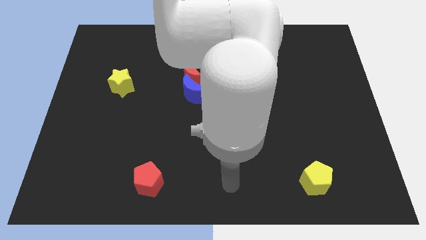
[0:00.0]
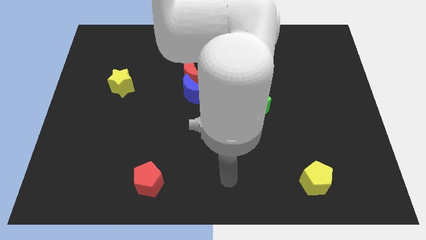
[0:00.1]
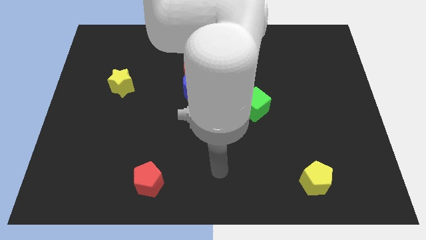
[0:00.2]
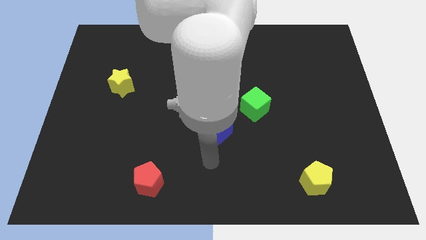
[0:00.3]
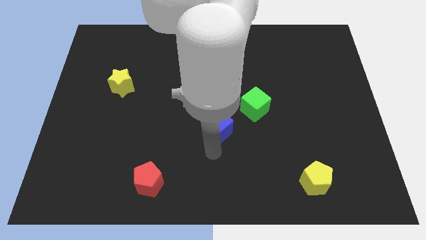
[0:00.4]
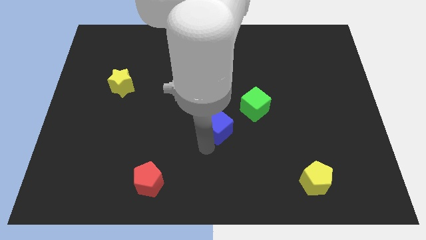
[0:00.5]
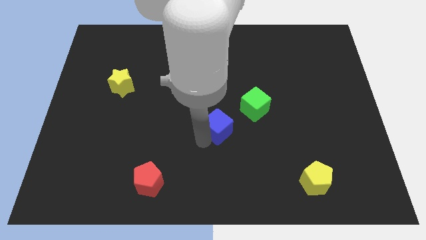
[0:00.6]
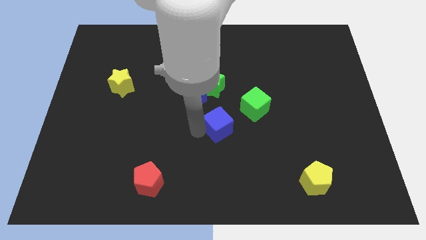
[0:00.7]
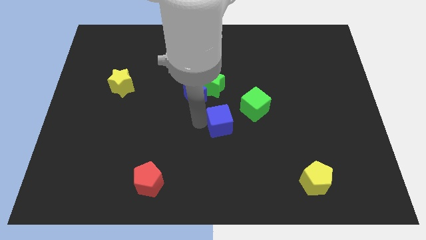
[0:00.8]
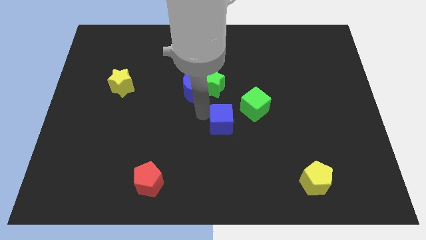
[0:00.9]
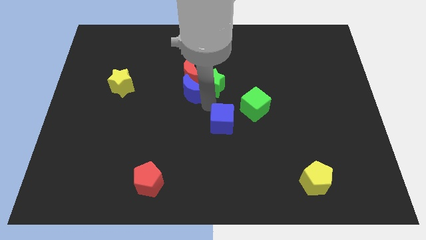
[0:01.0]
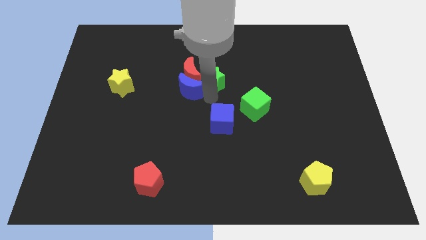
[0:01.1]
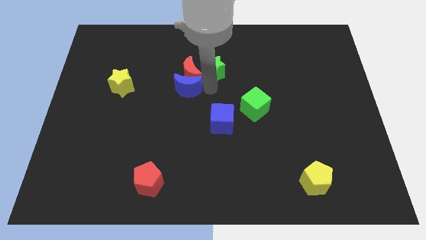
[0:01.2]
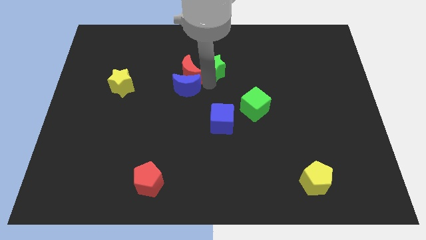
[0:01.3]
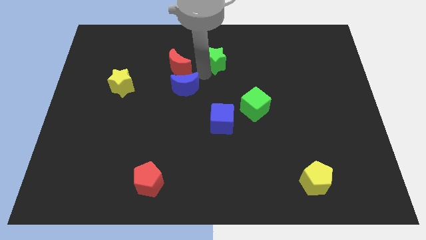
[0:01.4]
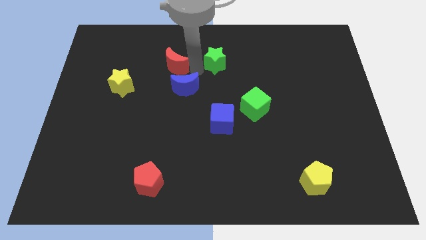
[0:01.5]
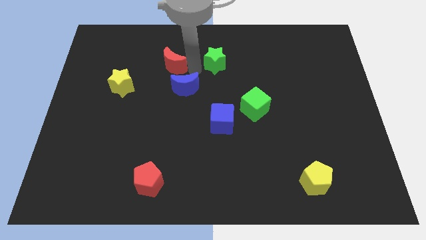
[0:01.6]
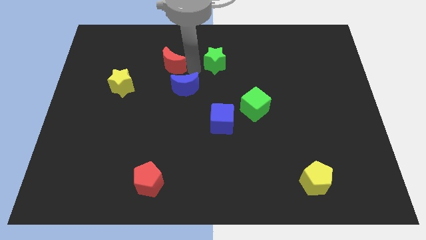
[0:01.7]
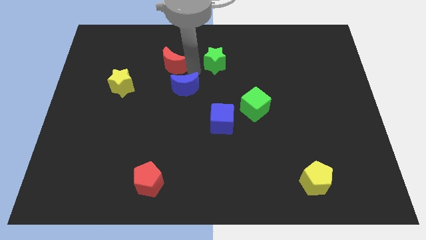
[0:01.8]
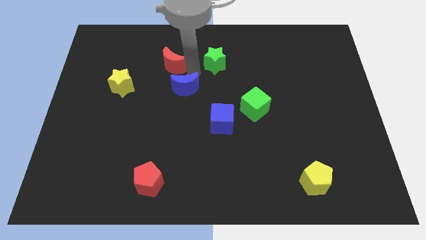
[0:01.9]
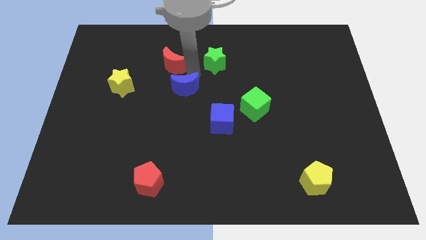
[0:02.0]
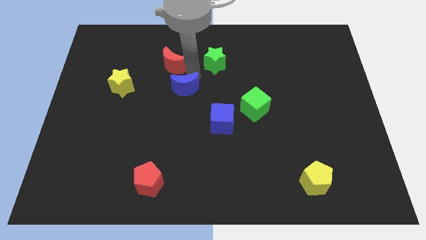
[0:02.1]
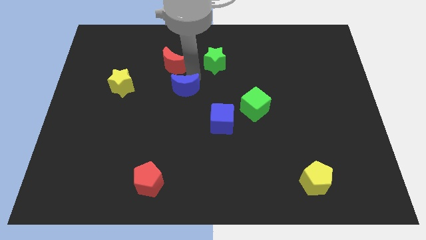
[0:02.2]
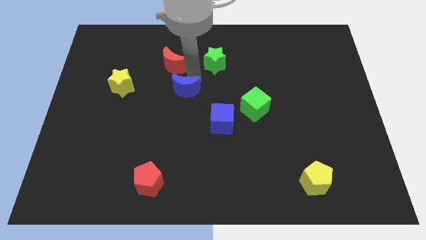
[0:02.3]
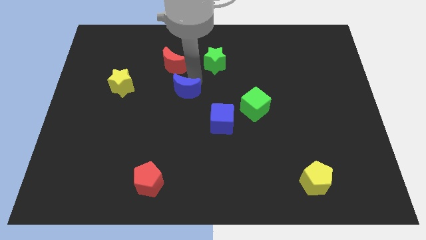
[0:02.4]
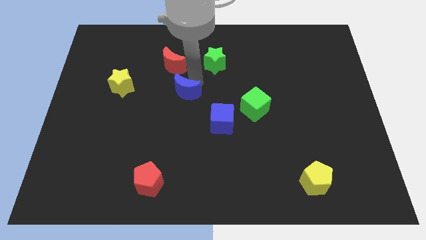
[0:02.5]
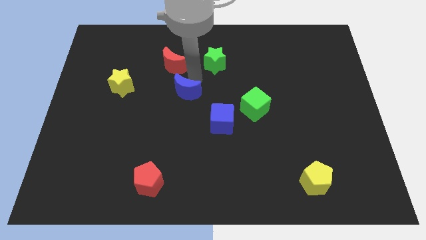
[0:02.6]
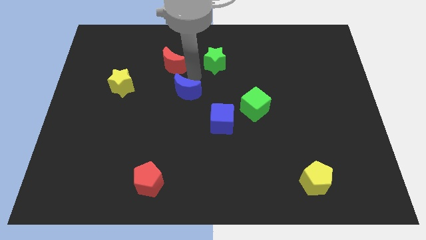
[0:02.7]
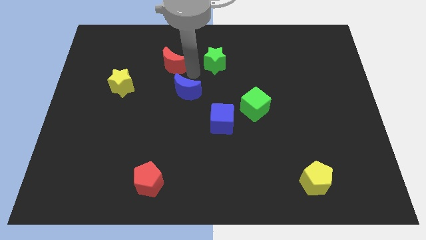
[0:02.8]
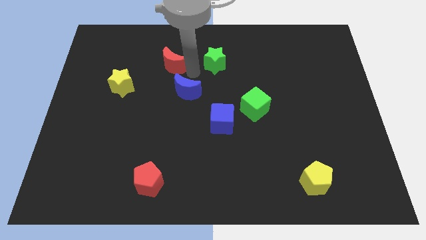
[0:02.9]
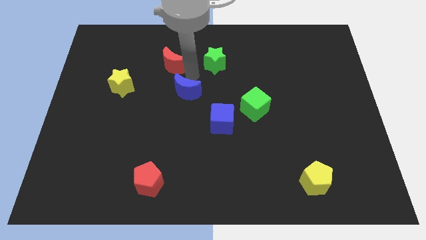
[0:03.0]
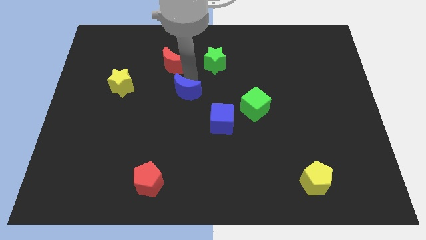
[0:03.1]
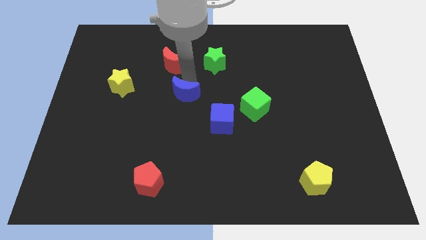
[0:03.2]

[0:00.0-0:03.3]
separate the blue moon from the green star and red moon

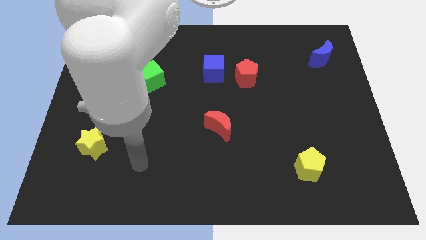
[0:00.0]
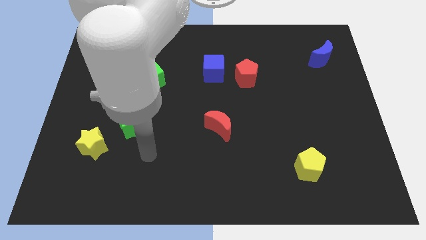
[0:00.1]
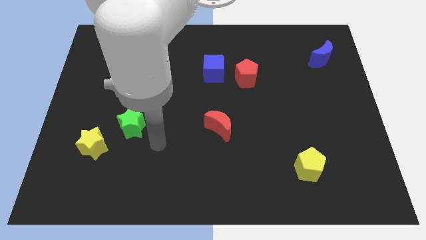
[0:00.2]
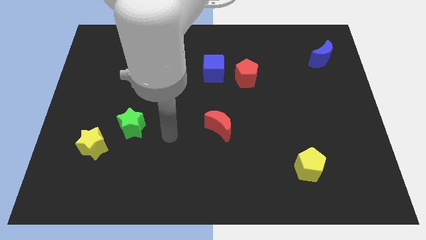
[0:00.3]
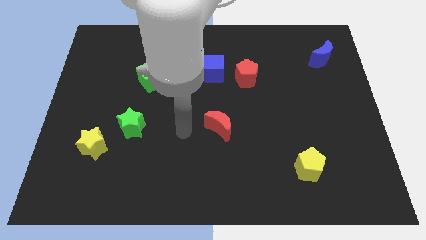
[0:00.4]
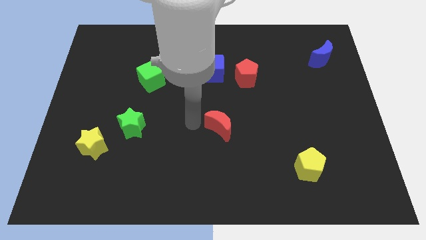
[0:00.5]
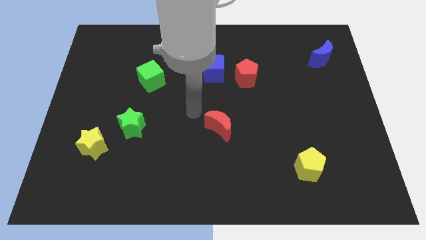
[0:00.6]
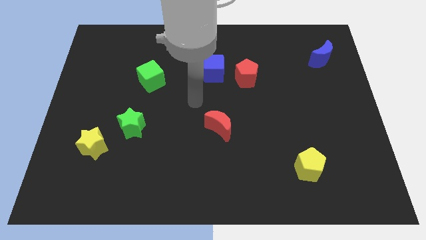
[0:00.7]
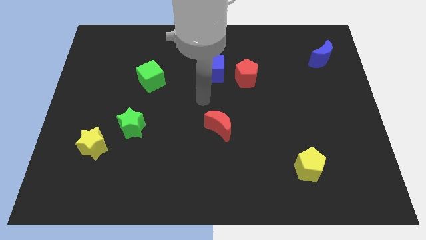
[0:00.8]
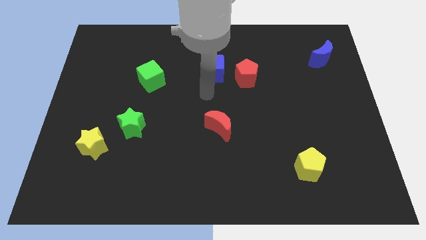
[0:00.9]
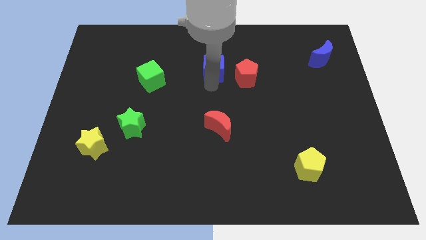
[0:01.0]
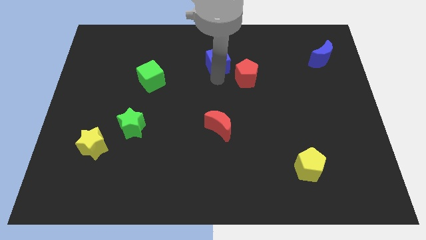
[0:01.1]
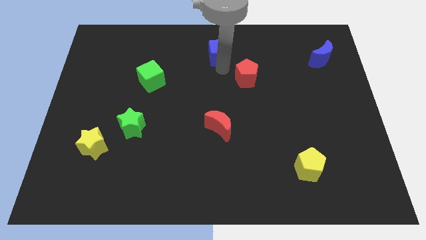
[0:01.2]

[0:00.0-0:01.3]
move the red pentagon away from the blue cube

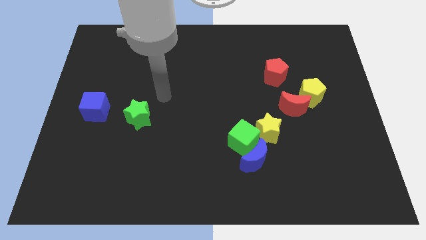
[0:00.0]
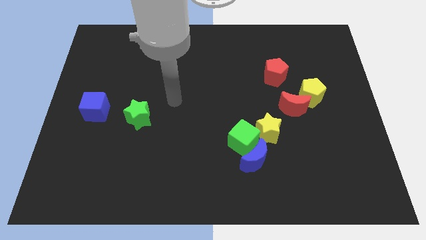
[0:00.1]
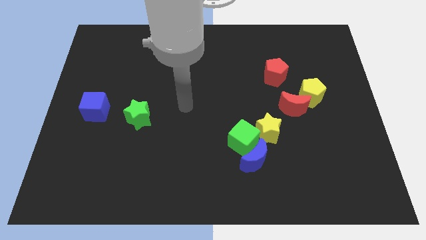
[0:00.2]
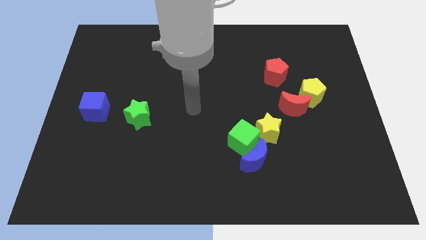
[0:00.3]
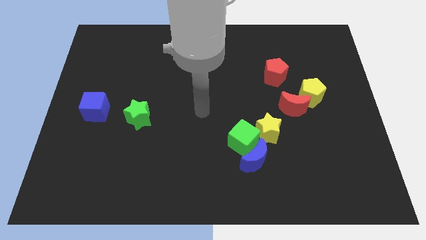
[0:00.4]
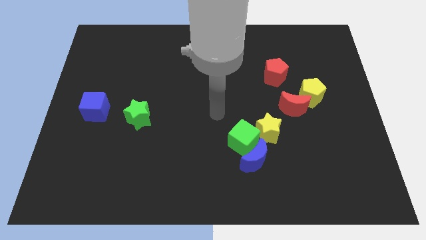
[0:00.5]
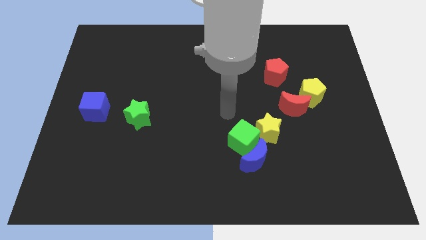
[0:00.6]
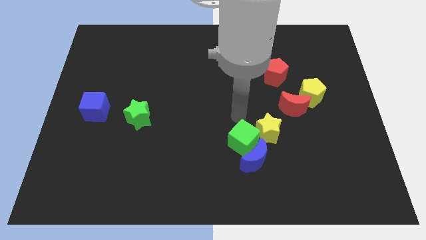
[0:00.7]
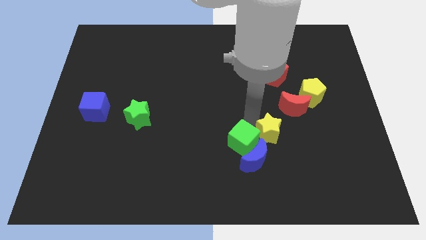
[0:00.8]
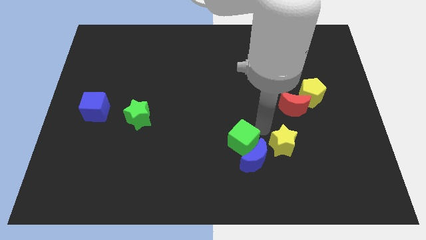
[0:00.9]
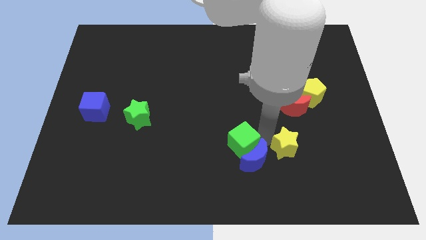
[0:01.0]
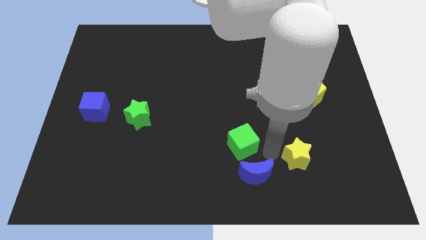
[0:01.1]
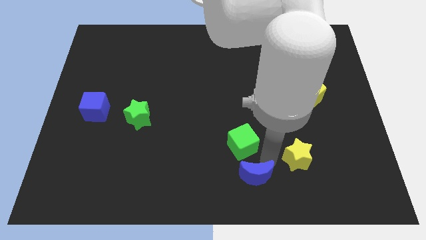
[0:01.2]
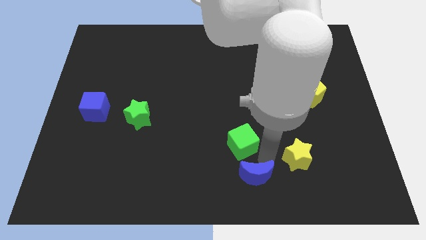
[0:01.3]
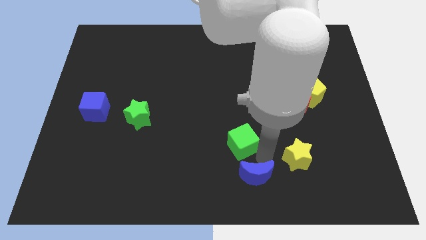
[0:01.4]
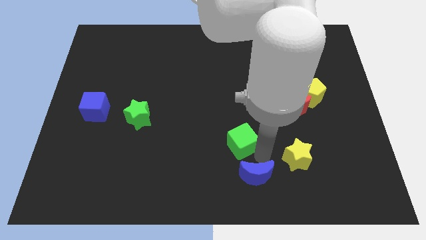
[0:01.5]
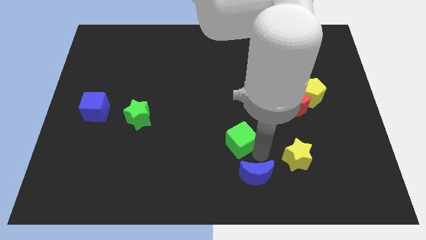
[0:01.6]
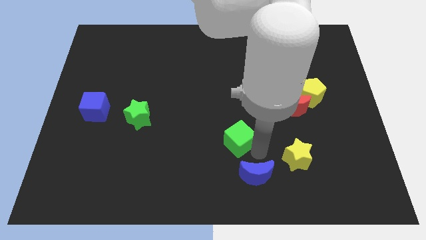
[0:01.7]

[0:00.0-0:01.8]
separate the green cube from the blue moon and yellow star

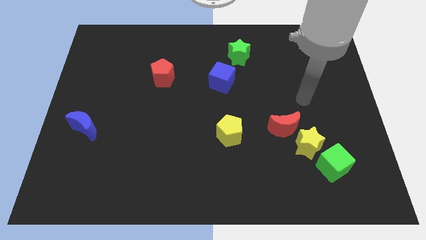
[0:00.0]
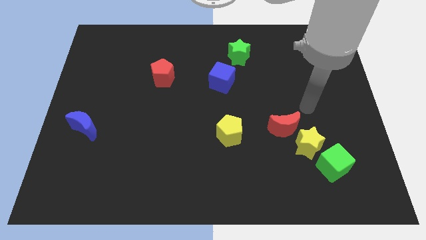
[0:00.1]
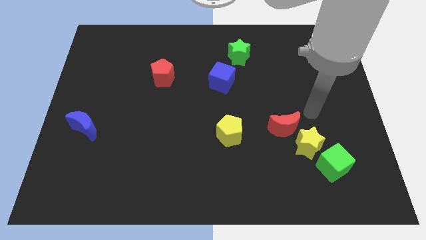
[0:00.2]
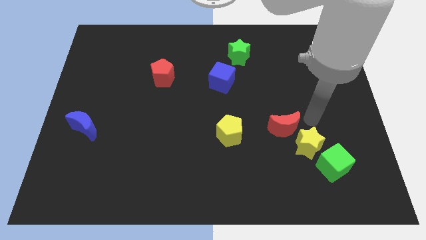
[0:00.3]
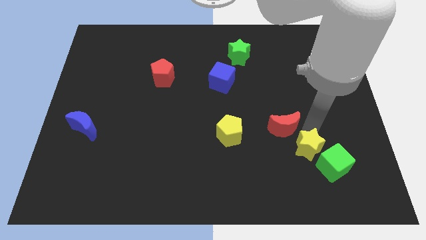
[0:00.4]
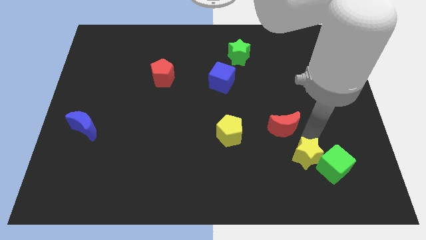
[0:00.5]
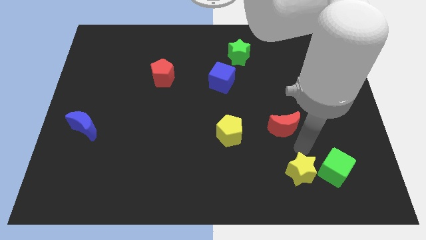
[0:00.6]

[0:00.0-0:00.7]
pull the red moon apart from the yellow star

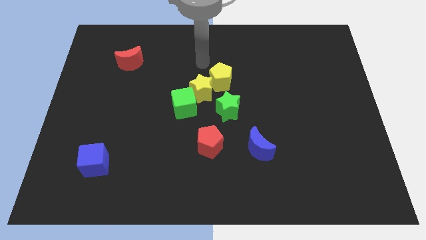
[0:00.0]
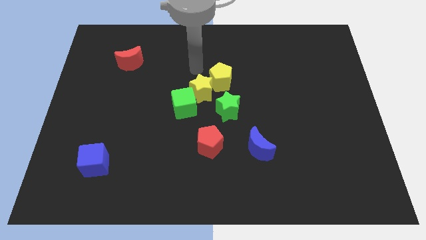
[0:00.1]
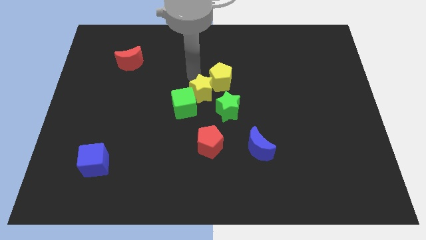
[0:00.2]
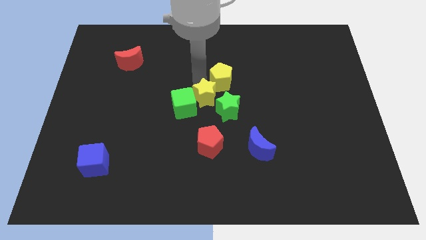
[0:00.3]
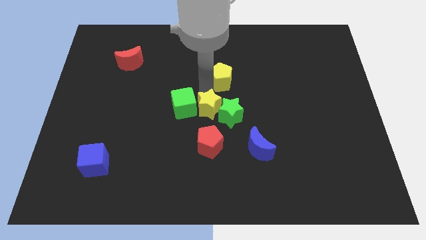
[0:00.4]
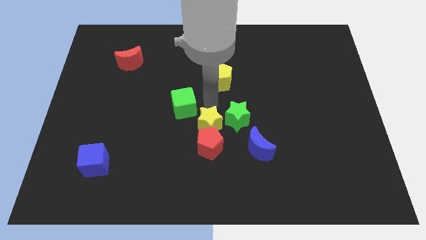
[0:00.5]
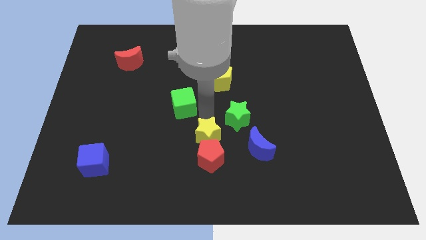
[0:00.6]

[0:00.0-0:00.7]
pull the green cube apart from the yellow star

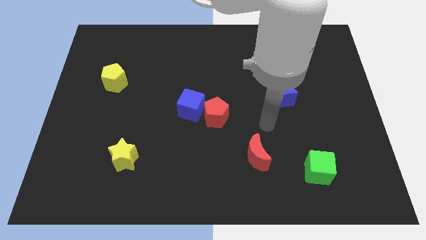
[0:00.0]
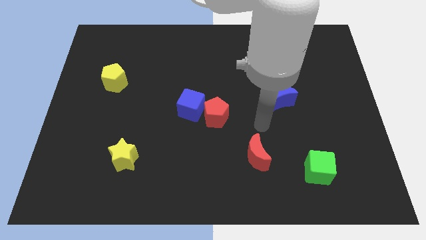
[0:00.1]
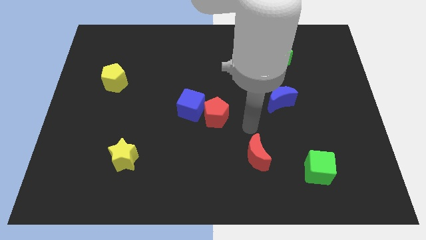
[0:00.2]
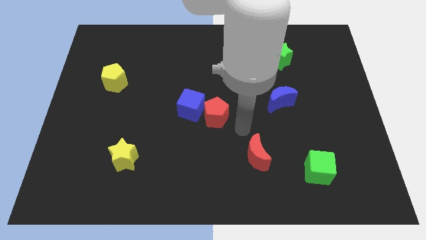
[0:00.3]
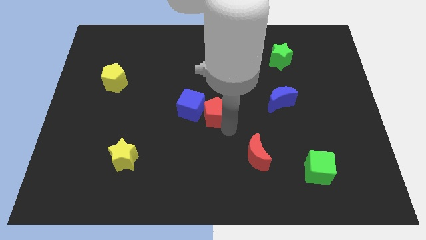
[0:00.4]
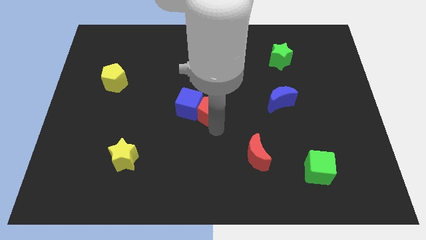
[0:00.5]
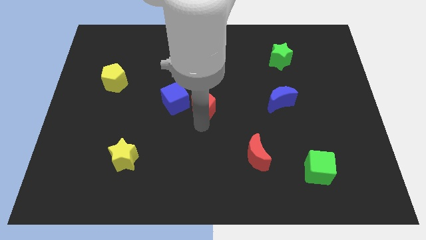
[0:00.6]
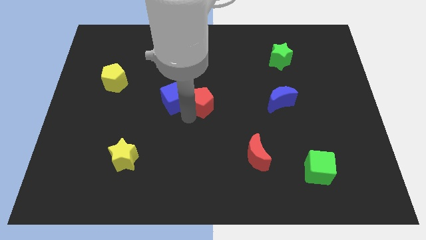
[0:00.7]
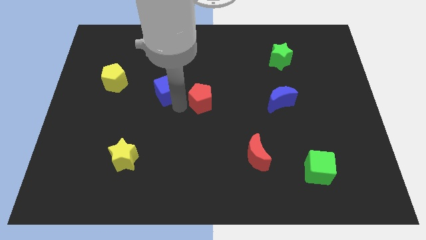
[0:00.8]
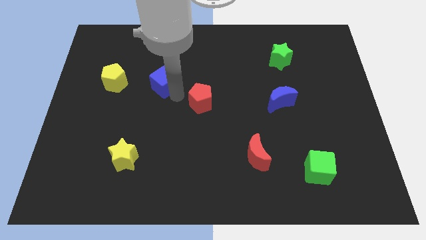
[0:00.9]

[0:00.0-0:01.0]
separate the red pentagon from the blue cube

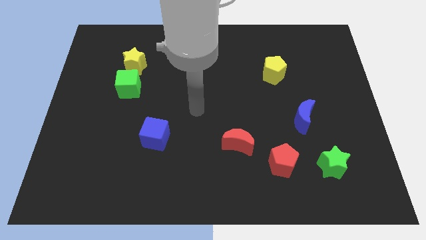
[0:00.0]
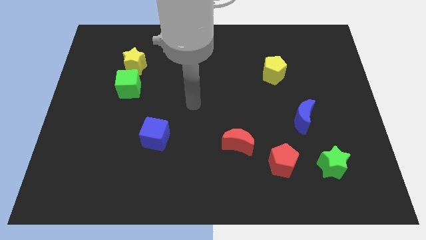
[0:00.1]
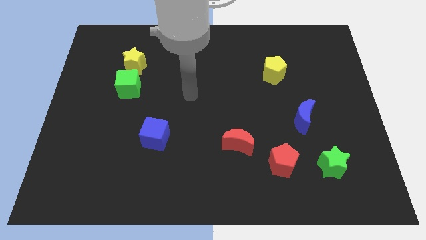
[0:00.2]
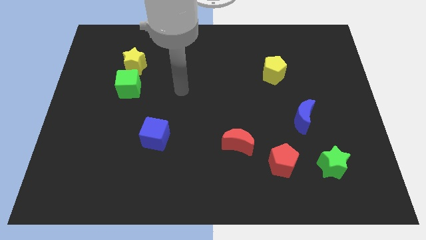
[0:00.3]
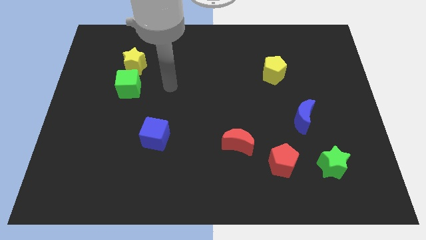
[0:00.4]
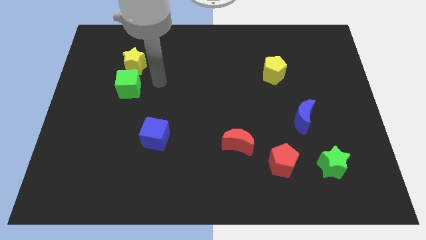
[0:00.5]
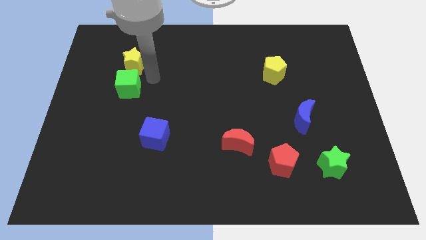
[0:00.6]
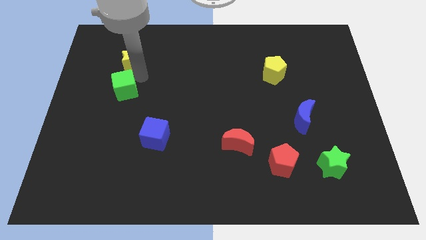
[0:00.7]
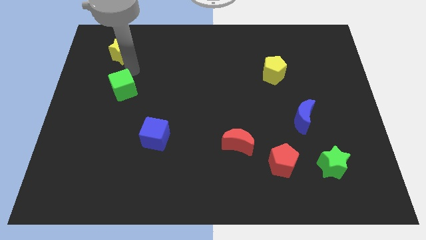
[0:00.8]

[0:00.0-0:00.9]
move the green cube away from the yellow star
